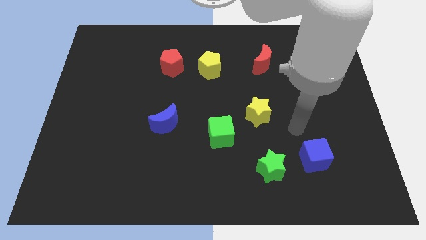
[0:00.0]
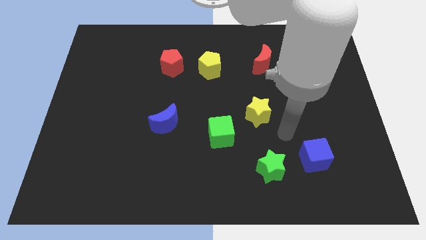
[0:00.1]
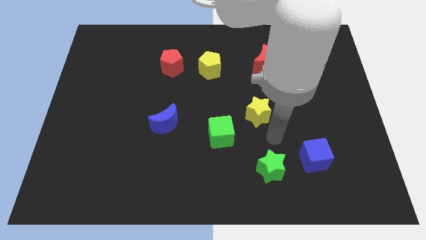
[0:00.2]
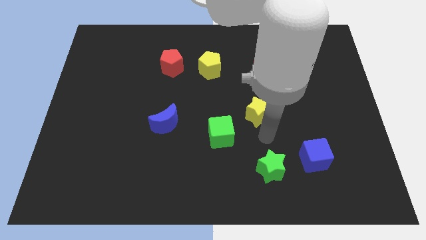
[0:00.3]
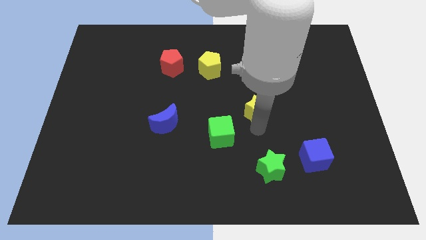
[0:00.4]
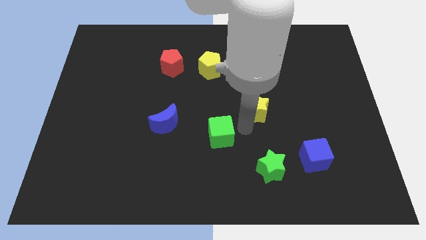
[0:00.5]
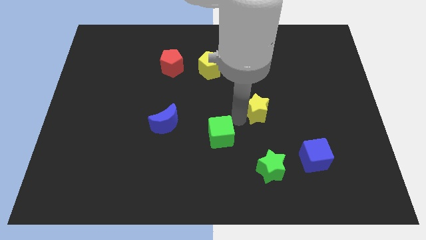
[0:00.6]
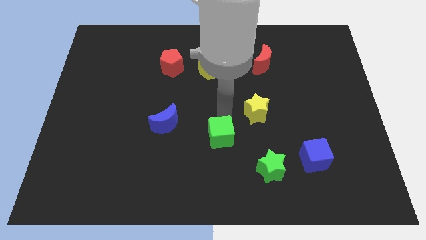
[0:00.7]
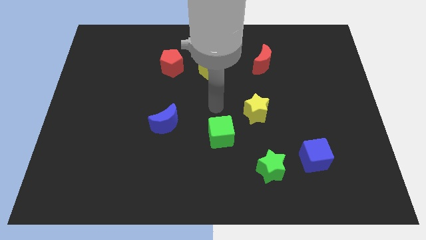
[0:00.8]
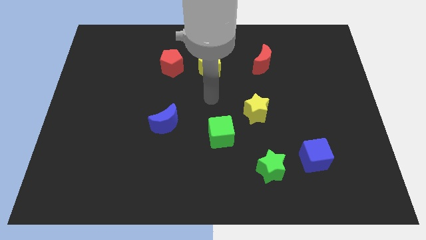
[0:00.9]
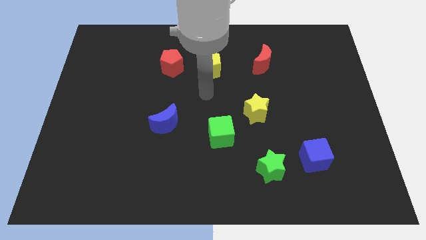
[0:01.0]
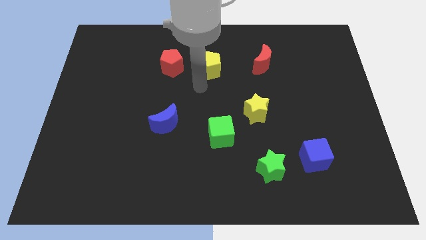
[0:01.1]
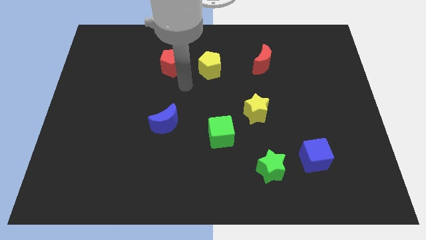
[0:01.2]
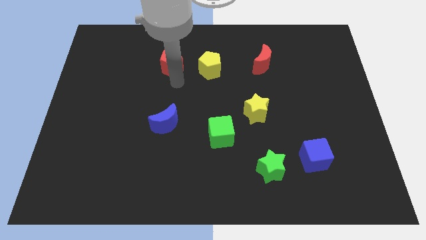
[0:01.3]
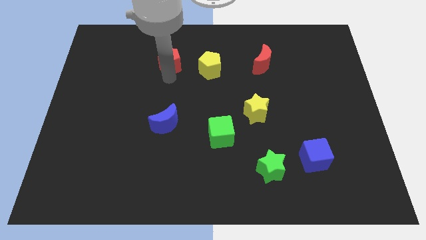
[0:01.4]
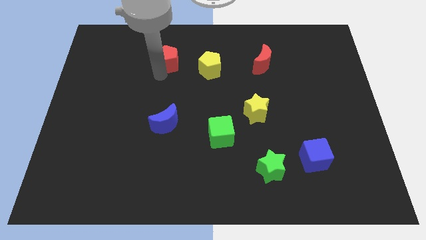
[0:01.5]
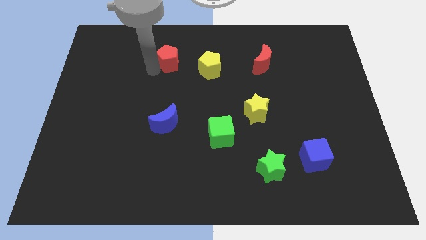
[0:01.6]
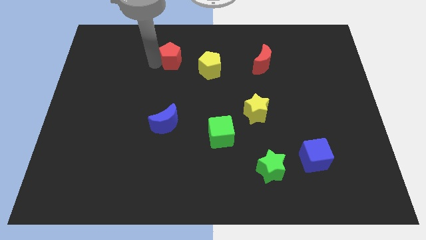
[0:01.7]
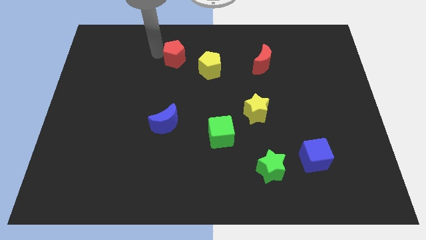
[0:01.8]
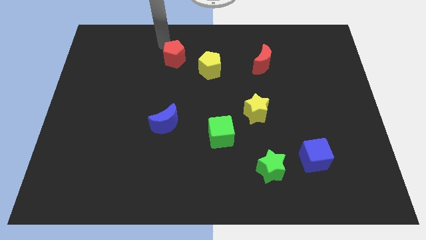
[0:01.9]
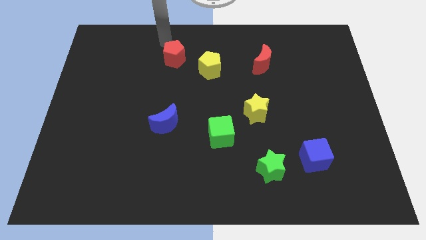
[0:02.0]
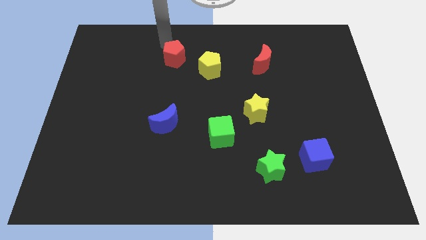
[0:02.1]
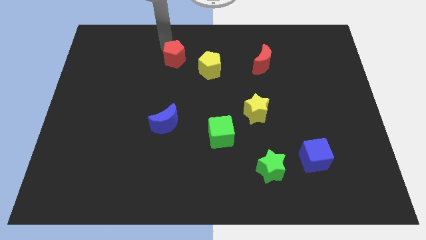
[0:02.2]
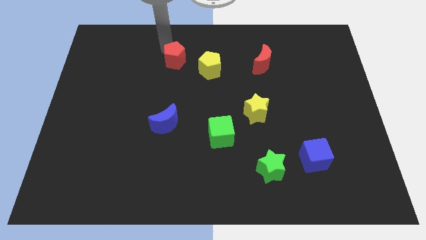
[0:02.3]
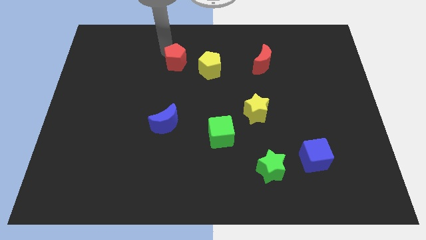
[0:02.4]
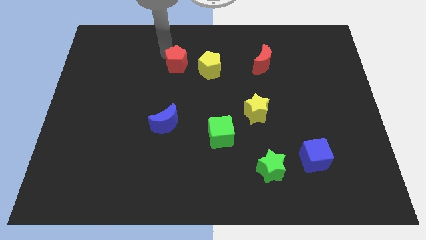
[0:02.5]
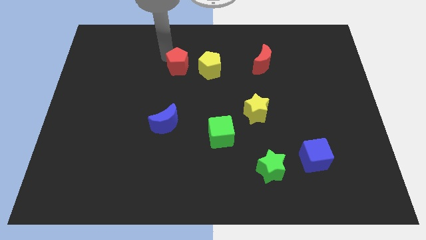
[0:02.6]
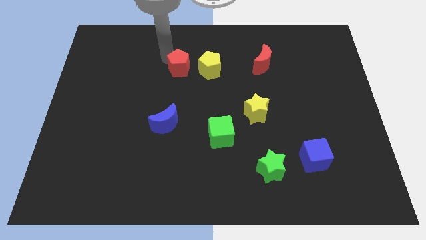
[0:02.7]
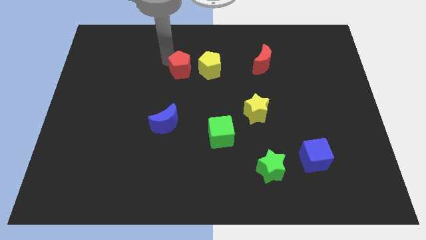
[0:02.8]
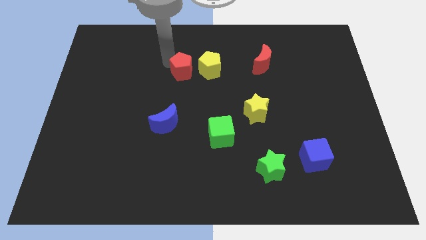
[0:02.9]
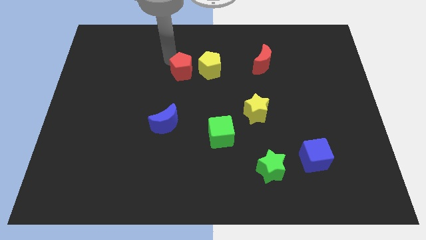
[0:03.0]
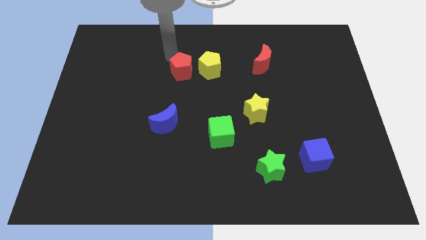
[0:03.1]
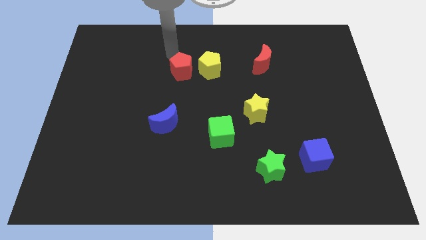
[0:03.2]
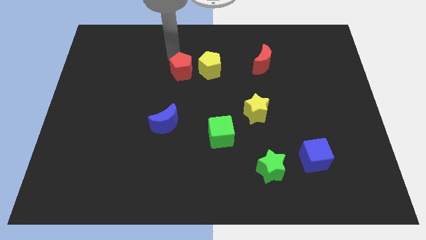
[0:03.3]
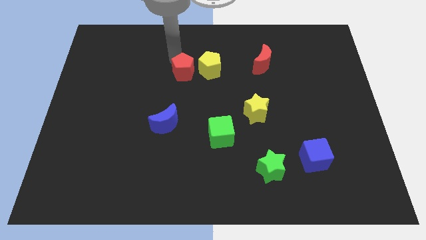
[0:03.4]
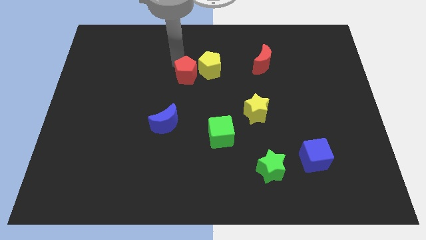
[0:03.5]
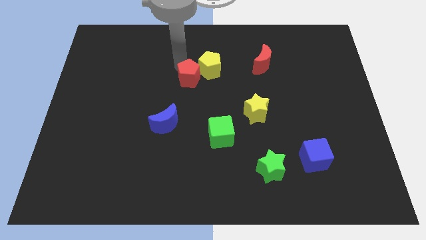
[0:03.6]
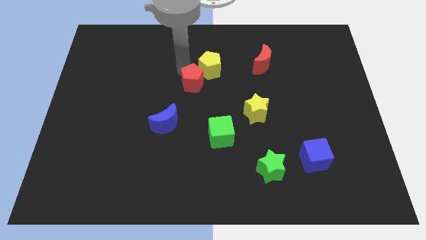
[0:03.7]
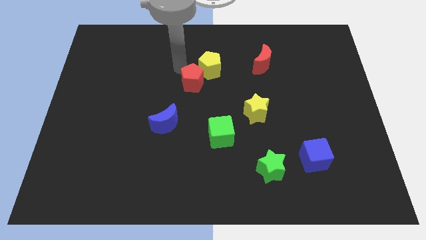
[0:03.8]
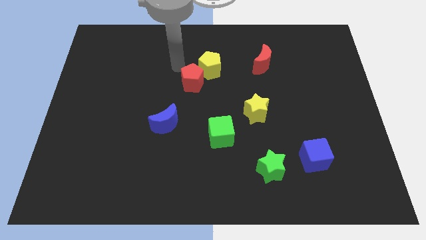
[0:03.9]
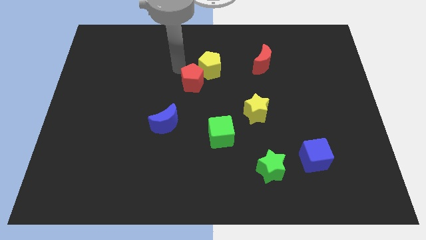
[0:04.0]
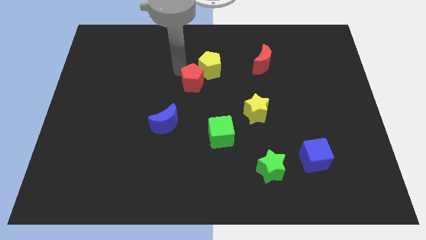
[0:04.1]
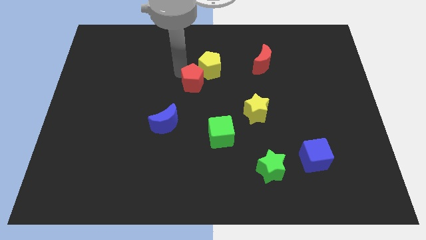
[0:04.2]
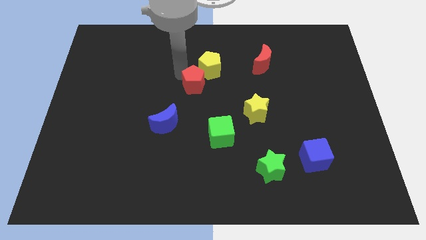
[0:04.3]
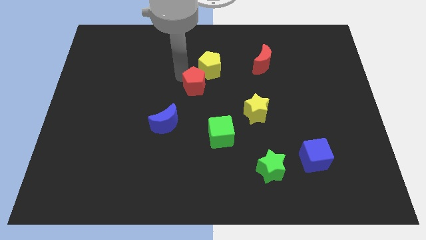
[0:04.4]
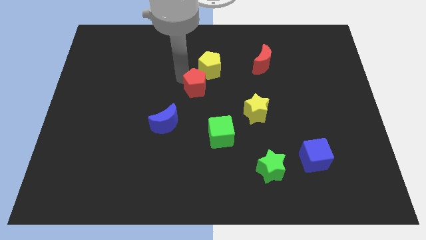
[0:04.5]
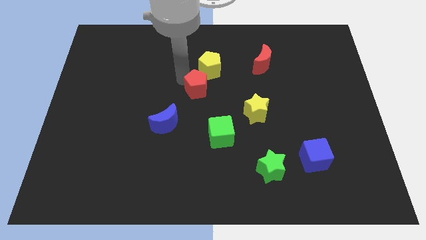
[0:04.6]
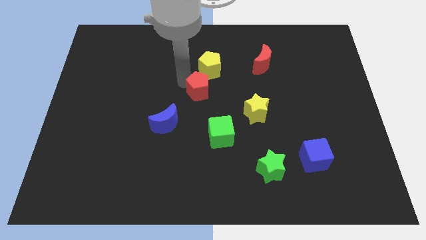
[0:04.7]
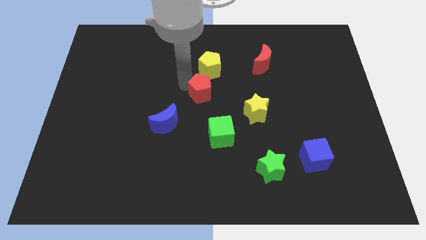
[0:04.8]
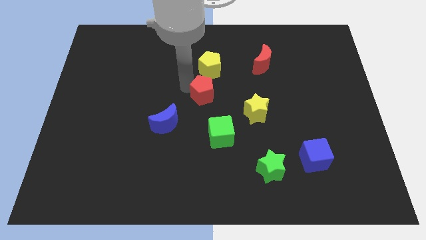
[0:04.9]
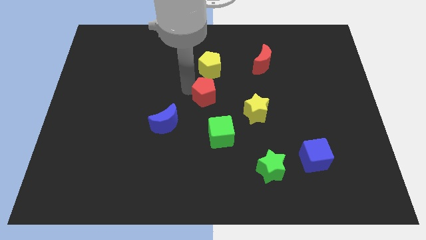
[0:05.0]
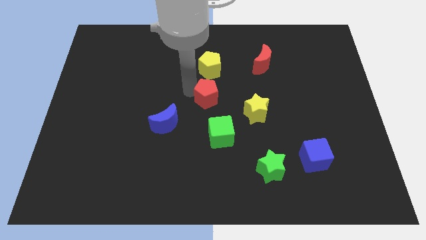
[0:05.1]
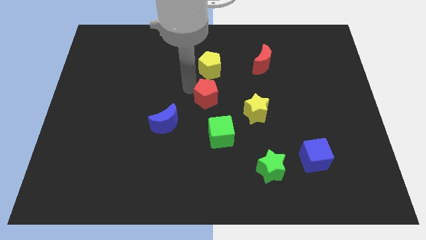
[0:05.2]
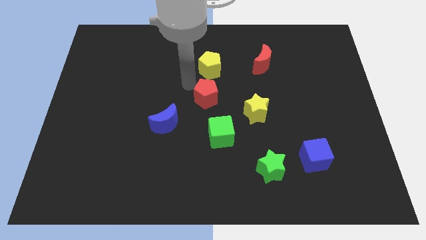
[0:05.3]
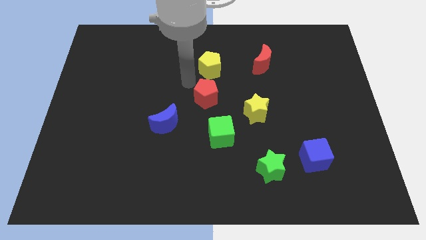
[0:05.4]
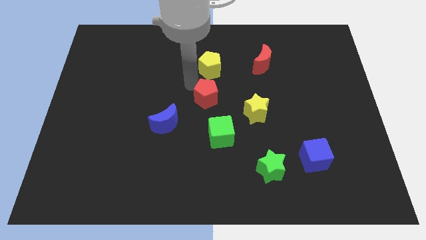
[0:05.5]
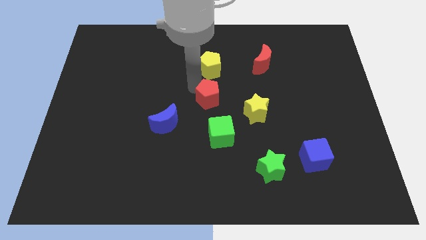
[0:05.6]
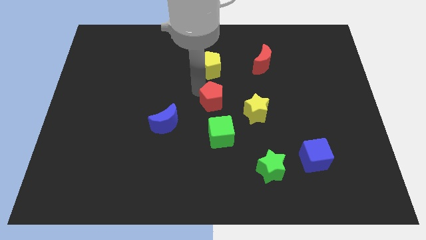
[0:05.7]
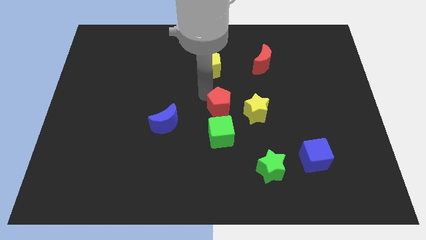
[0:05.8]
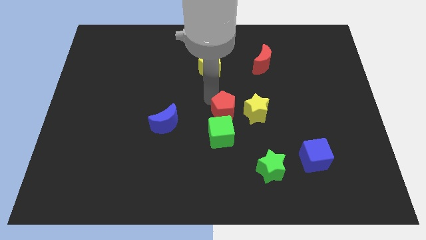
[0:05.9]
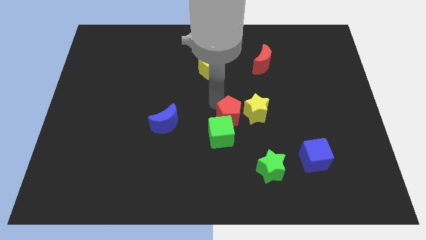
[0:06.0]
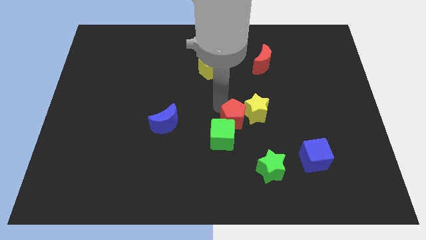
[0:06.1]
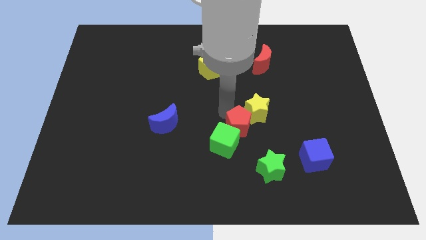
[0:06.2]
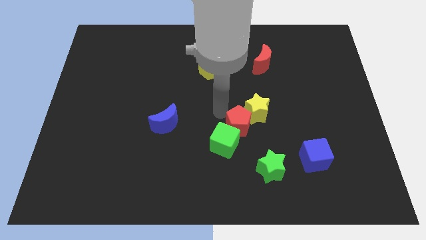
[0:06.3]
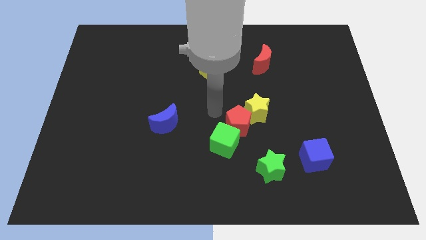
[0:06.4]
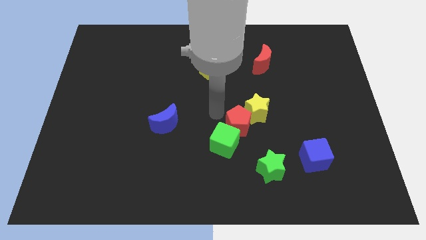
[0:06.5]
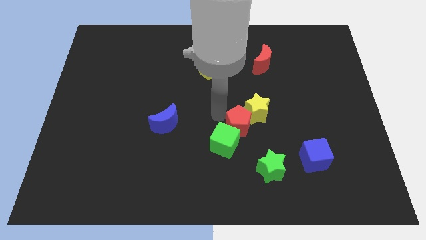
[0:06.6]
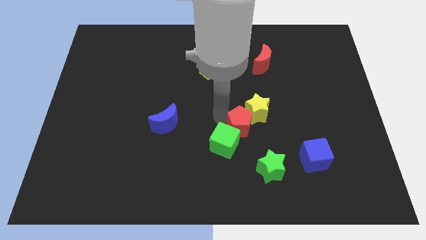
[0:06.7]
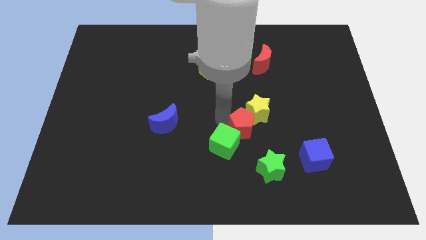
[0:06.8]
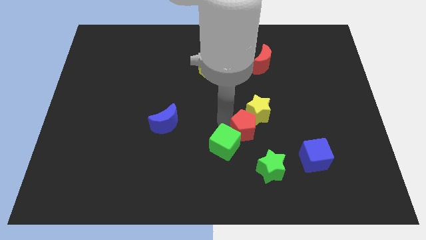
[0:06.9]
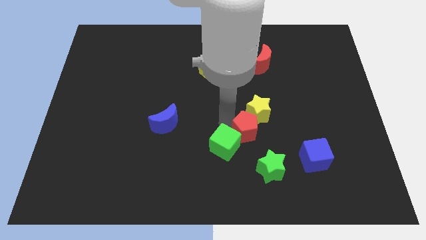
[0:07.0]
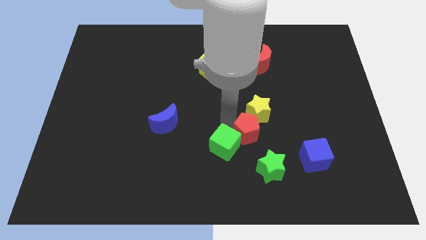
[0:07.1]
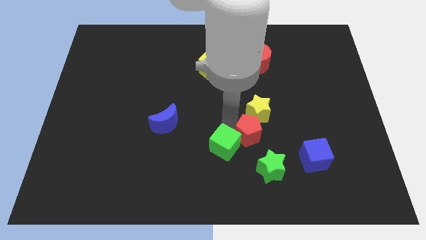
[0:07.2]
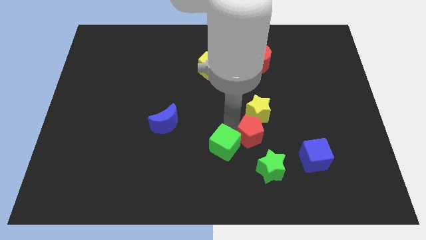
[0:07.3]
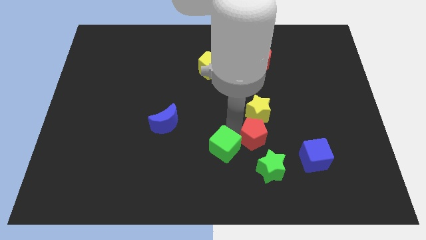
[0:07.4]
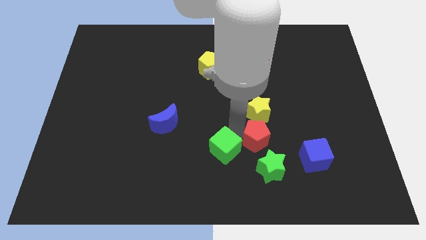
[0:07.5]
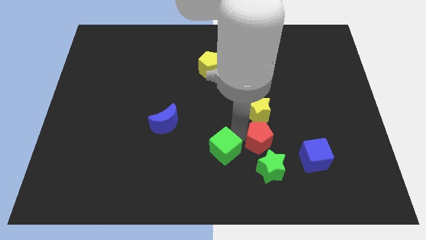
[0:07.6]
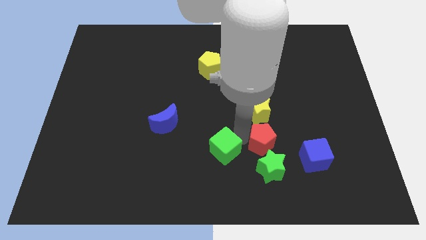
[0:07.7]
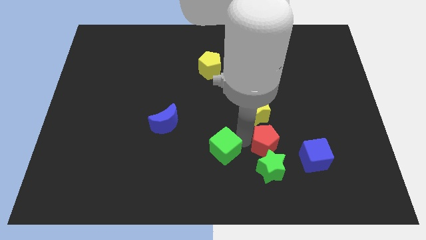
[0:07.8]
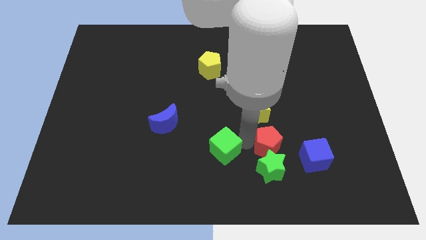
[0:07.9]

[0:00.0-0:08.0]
move the red pentagon to the top left side of the blue cube

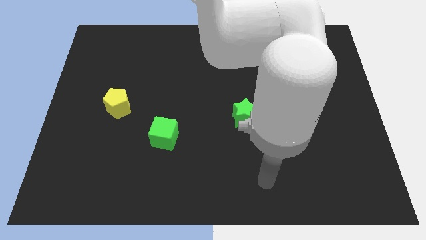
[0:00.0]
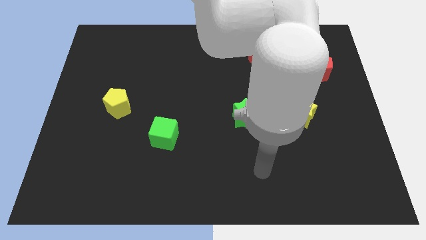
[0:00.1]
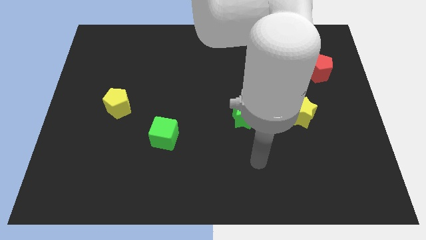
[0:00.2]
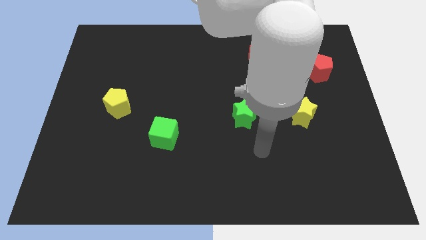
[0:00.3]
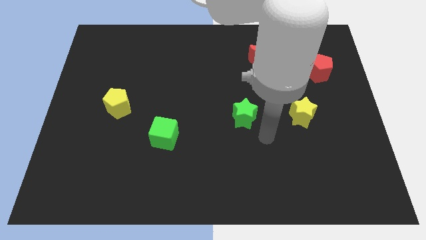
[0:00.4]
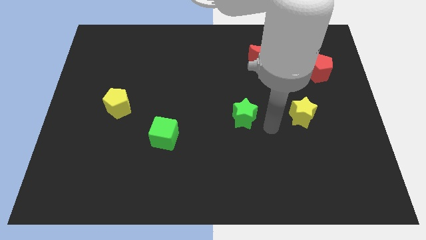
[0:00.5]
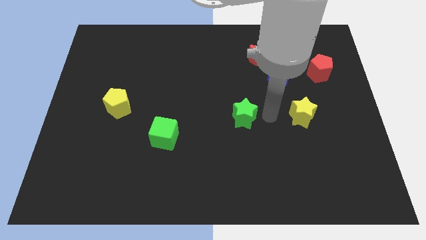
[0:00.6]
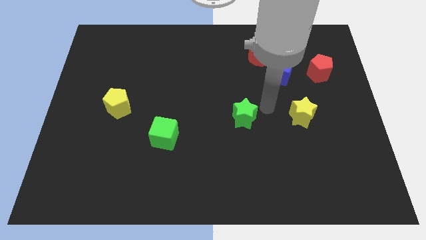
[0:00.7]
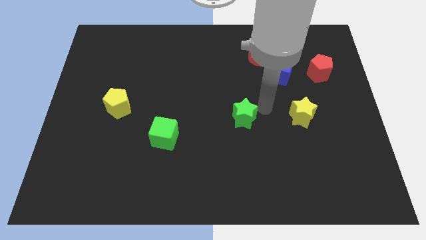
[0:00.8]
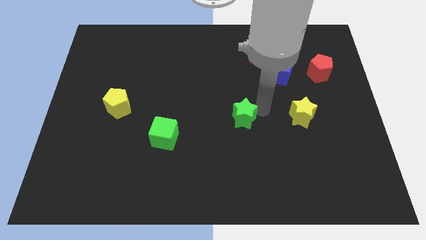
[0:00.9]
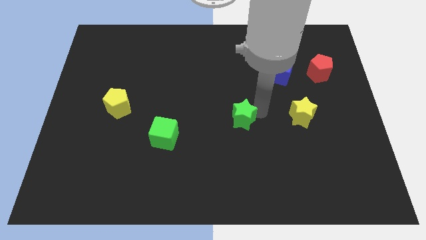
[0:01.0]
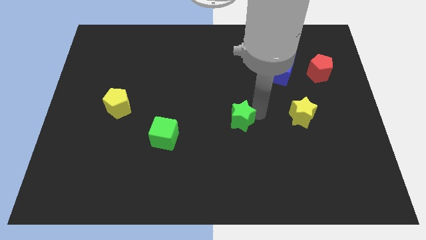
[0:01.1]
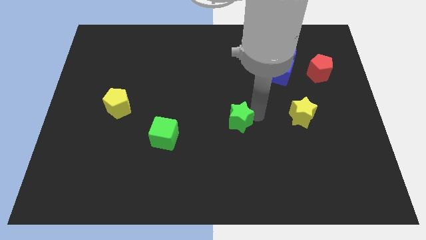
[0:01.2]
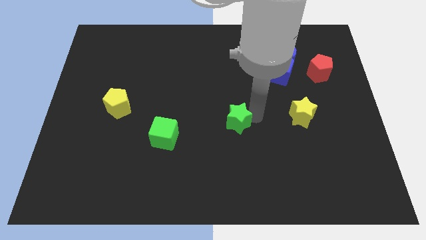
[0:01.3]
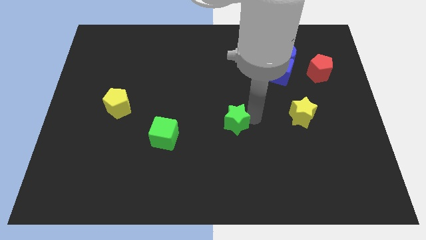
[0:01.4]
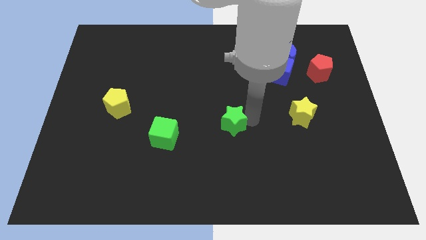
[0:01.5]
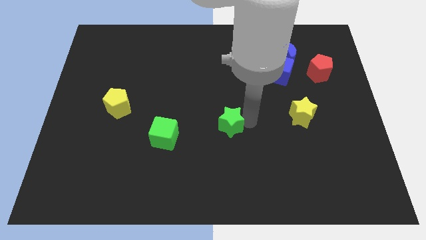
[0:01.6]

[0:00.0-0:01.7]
put the green star to the right side of the green cube
